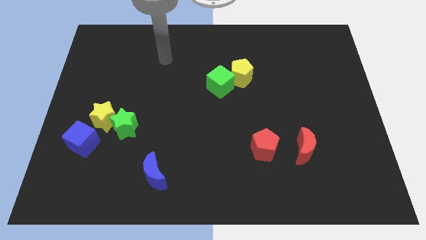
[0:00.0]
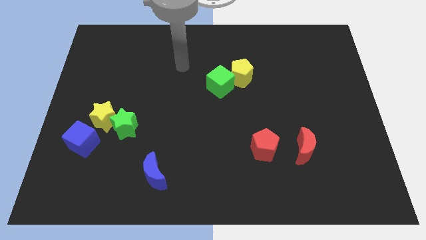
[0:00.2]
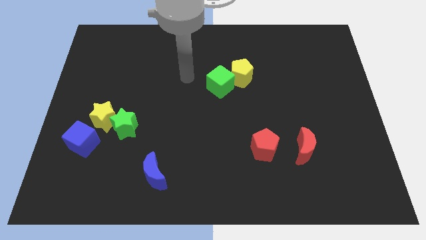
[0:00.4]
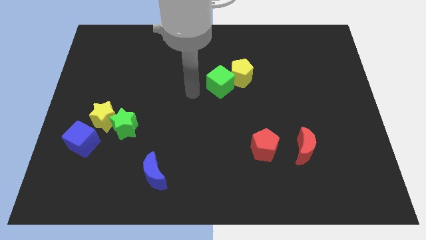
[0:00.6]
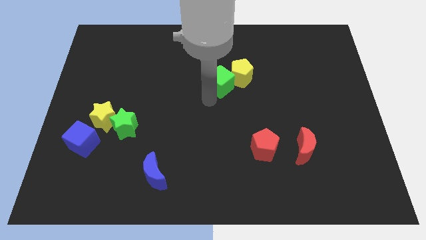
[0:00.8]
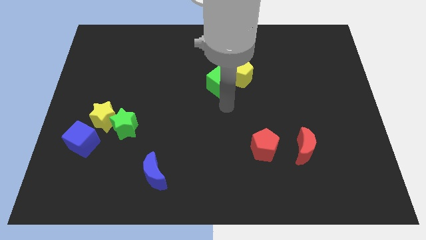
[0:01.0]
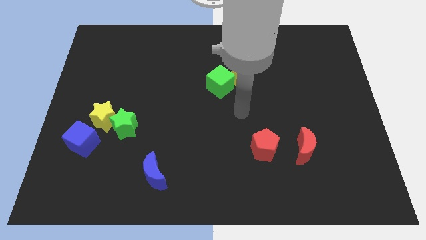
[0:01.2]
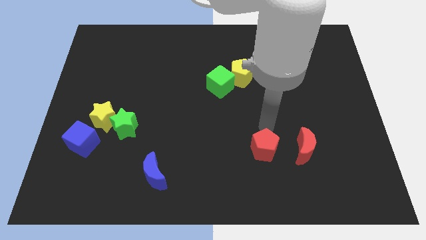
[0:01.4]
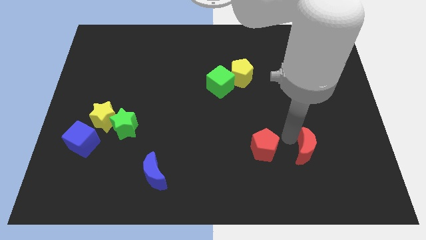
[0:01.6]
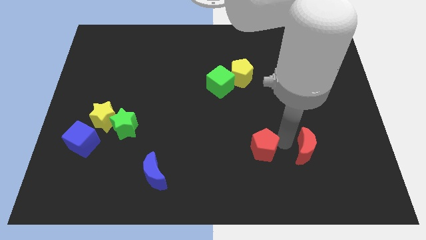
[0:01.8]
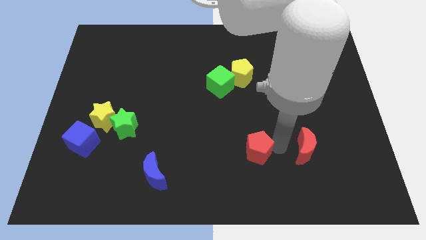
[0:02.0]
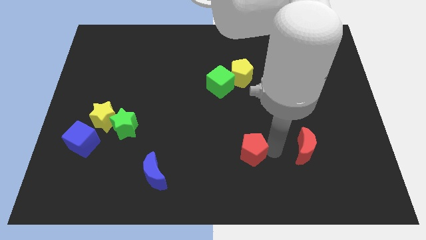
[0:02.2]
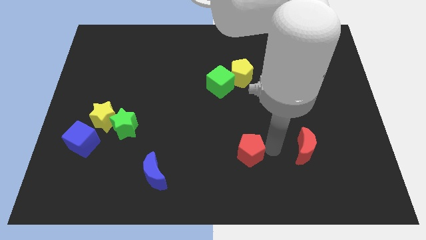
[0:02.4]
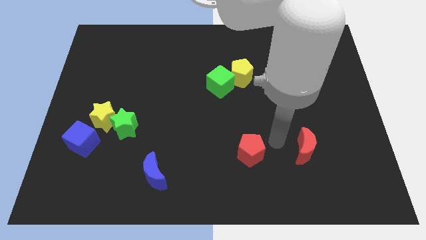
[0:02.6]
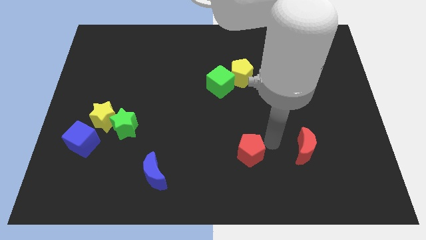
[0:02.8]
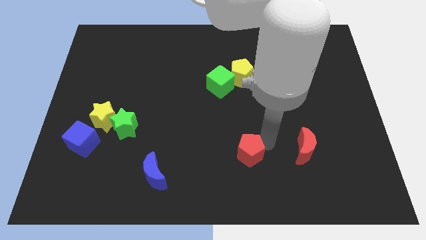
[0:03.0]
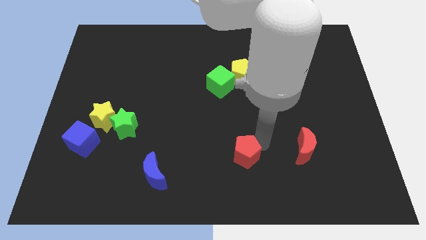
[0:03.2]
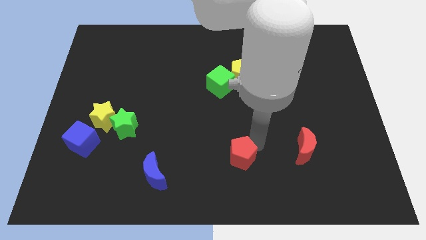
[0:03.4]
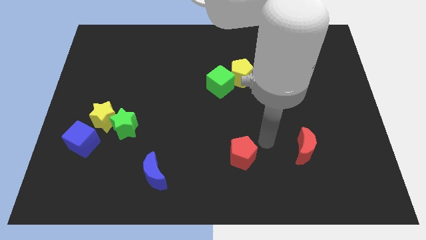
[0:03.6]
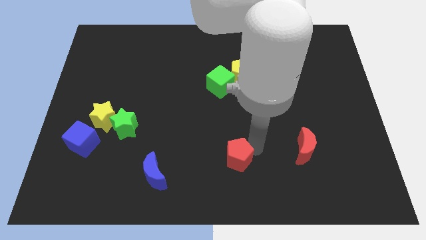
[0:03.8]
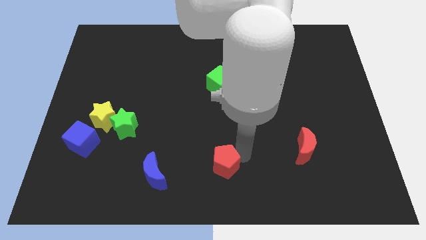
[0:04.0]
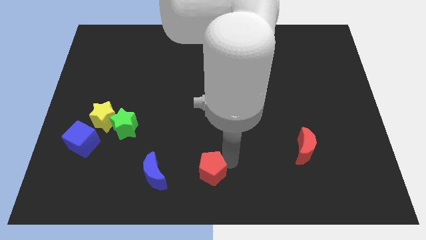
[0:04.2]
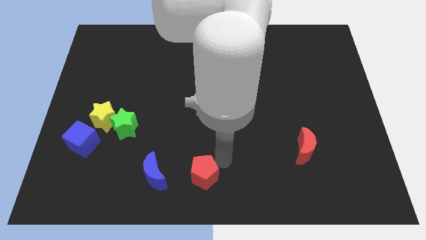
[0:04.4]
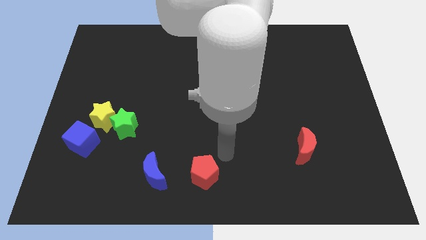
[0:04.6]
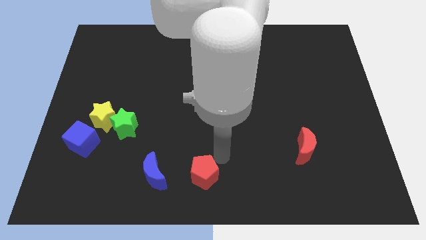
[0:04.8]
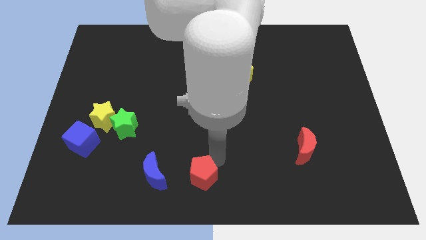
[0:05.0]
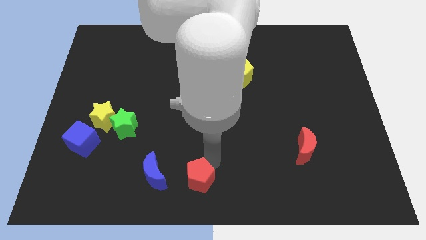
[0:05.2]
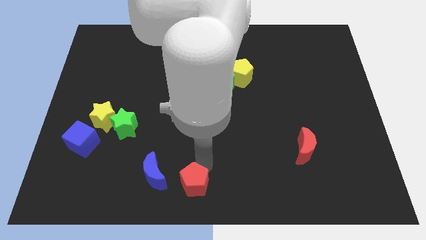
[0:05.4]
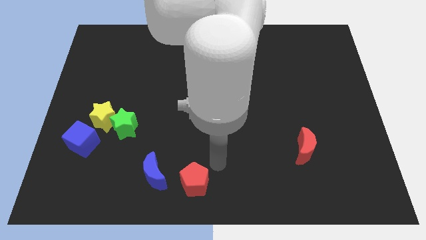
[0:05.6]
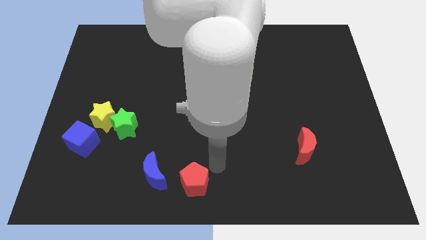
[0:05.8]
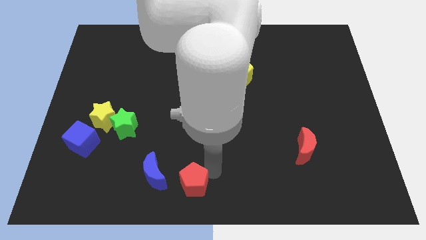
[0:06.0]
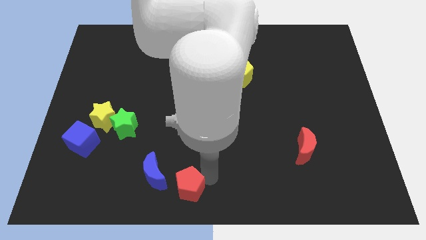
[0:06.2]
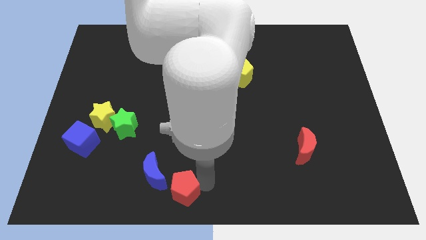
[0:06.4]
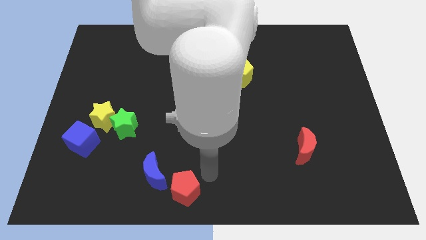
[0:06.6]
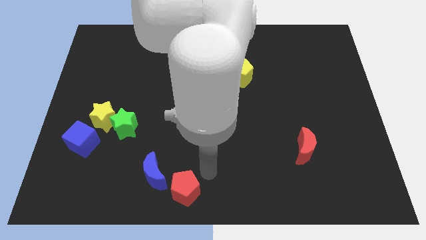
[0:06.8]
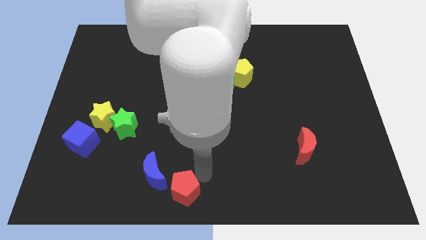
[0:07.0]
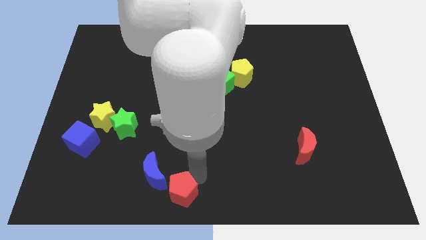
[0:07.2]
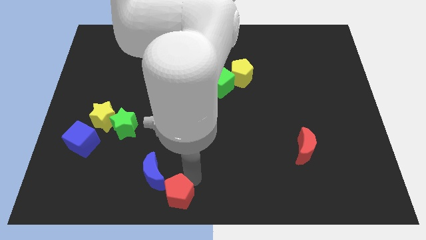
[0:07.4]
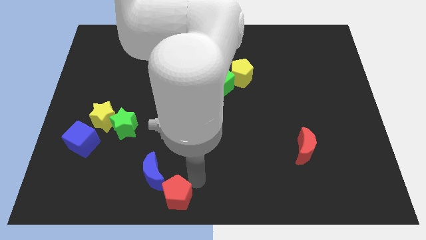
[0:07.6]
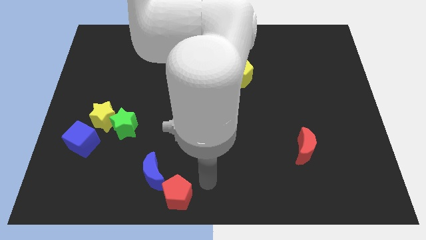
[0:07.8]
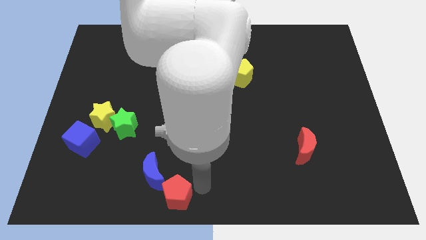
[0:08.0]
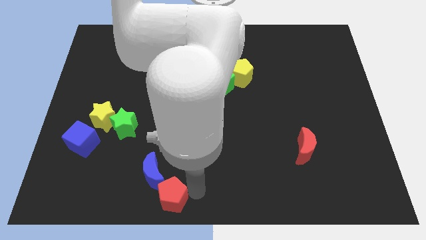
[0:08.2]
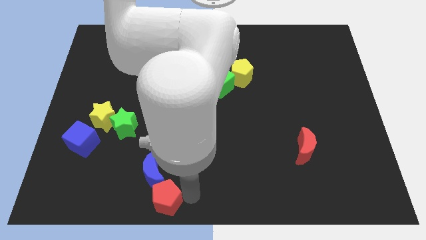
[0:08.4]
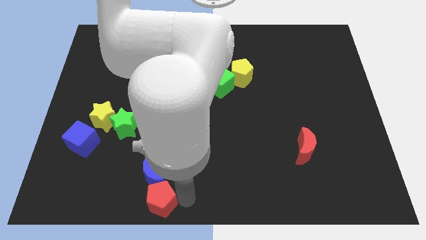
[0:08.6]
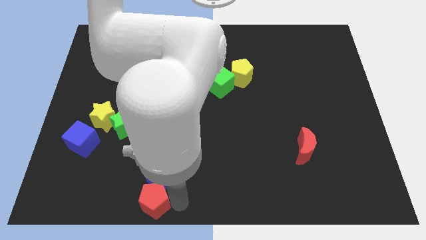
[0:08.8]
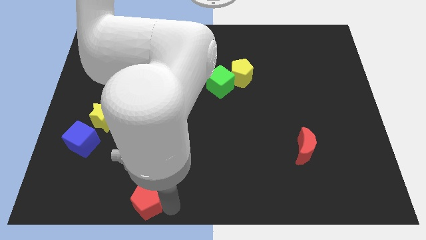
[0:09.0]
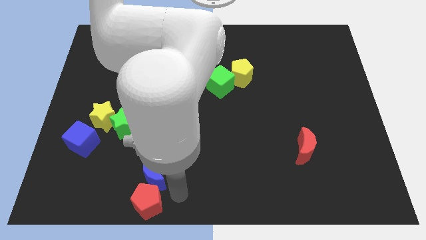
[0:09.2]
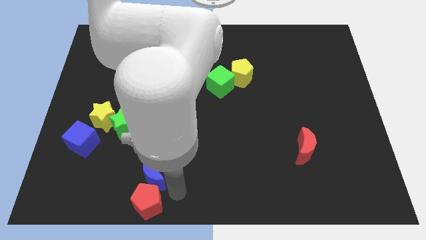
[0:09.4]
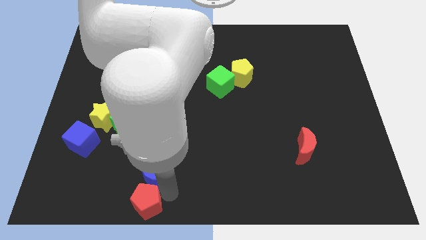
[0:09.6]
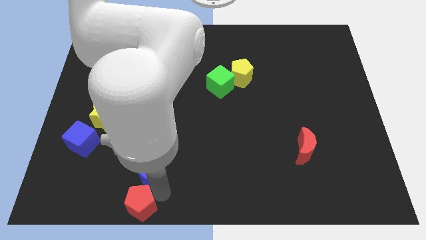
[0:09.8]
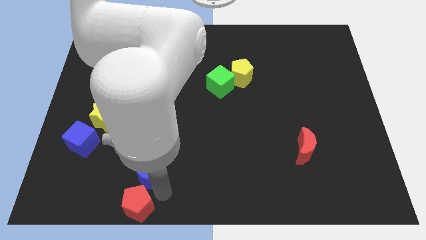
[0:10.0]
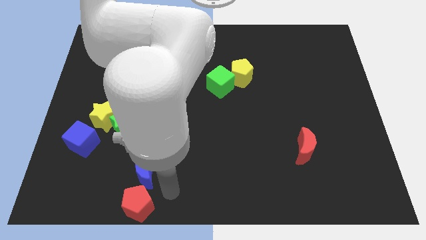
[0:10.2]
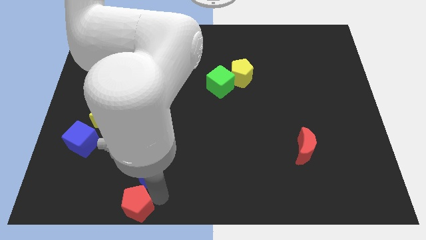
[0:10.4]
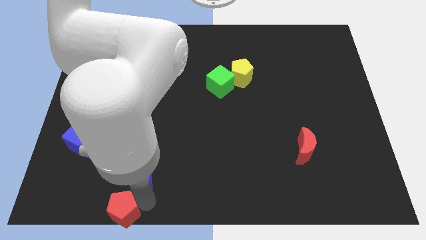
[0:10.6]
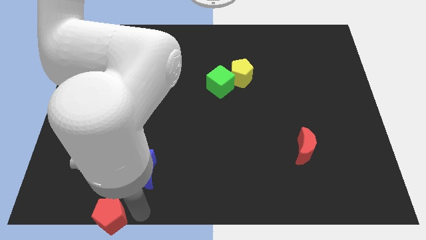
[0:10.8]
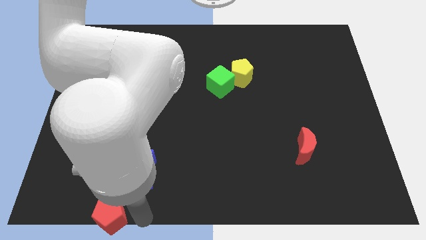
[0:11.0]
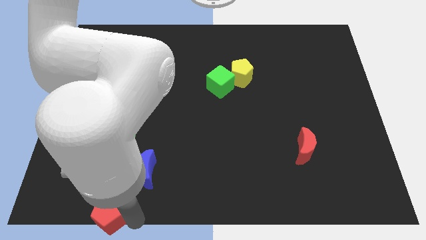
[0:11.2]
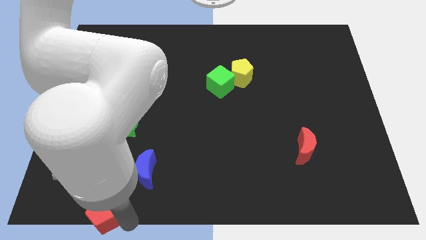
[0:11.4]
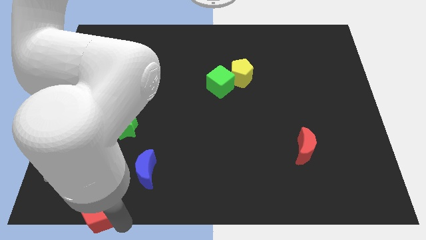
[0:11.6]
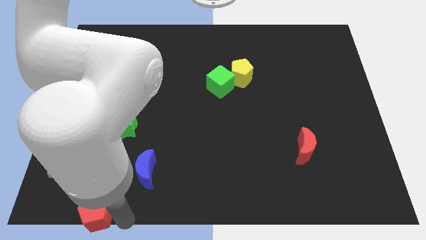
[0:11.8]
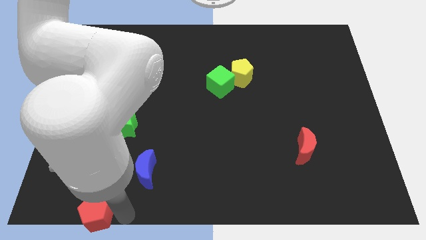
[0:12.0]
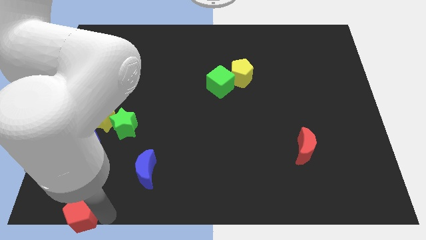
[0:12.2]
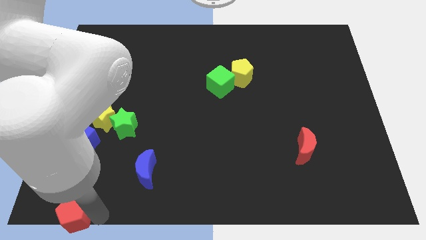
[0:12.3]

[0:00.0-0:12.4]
put the red pentagon to the bottom left corner
